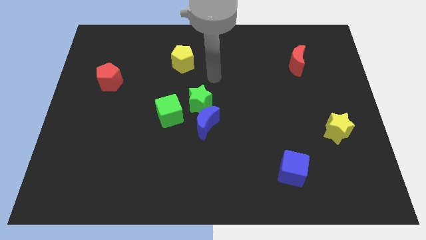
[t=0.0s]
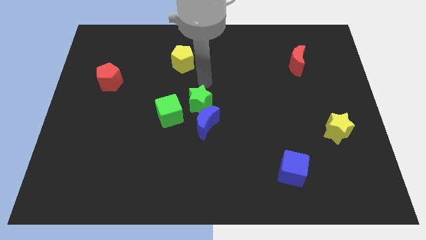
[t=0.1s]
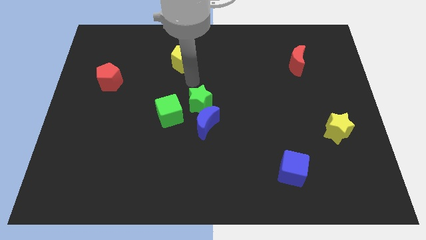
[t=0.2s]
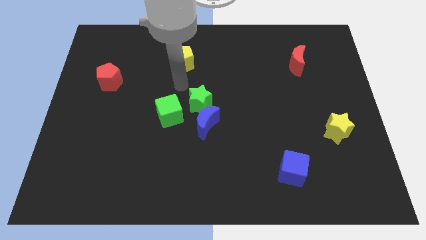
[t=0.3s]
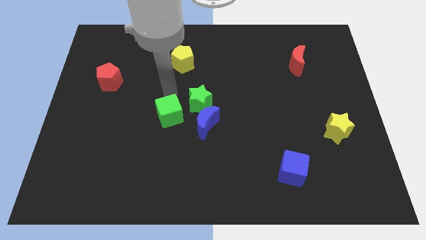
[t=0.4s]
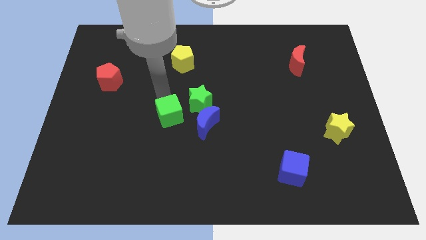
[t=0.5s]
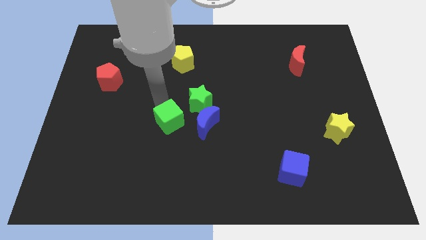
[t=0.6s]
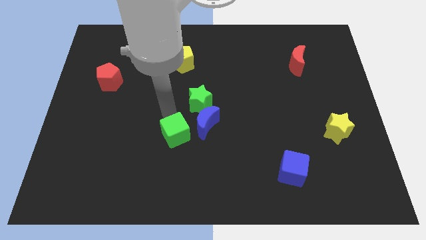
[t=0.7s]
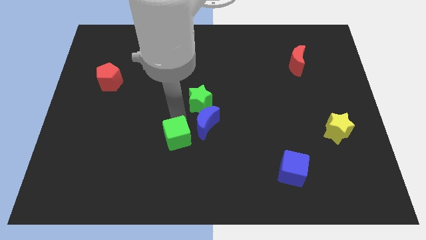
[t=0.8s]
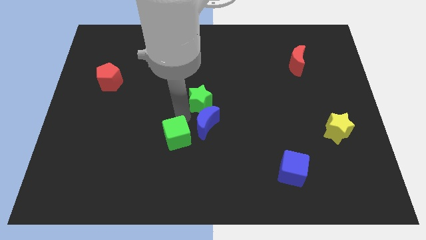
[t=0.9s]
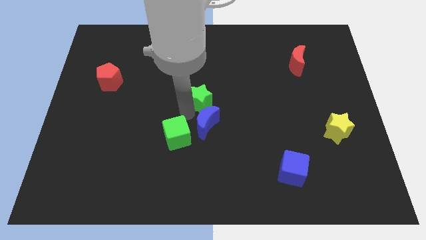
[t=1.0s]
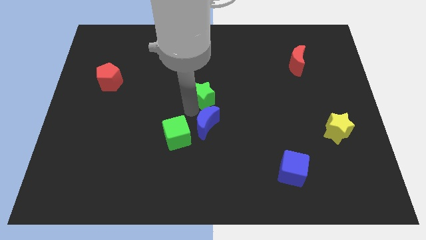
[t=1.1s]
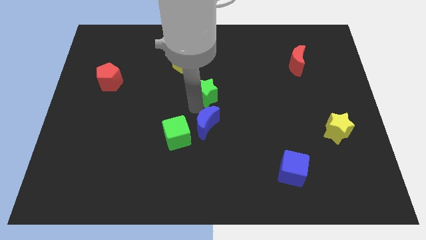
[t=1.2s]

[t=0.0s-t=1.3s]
pull the green star apart from the blue moon and green cube

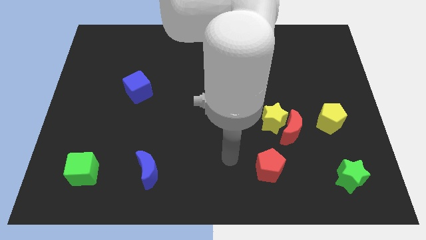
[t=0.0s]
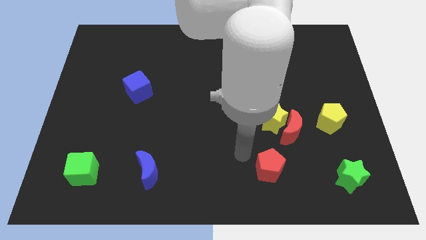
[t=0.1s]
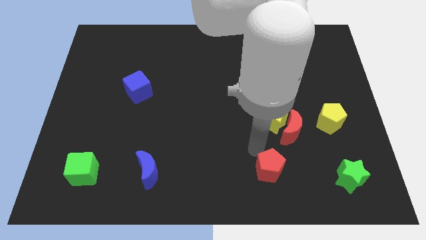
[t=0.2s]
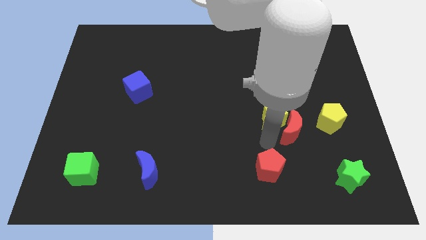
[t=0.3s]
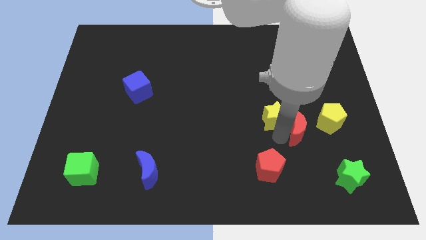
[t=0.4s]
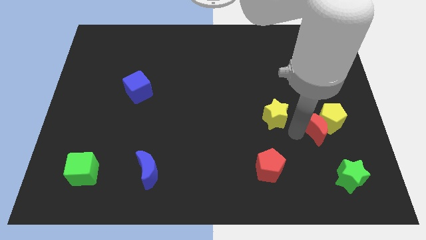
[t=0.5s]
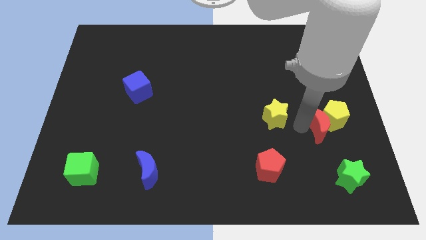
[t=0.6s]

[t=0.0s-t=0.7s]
move the yellow star away from the red moon

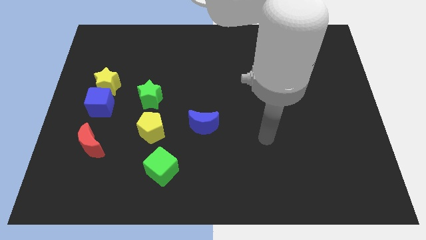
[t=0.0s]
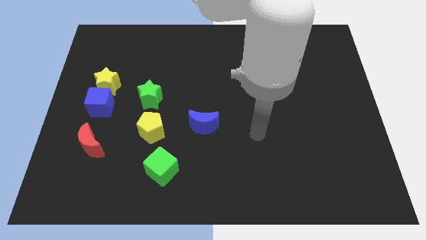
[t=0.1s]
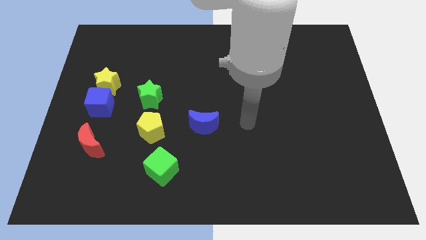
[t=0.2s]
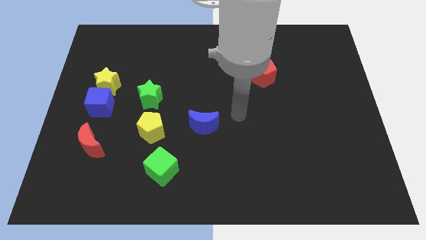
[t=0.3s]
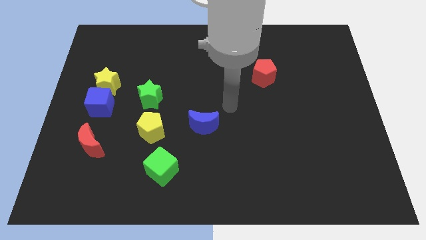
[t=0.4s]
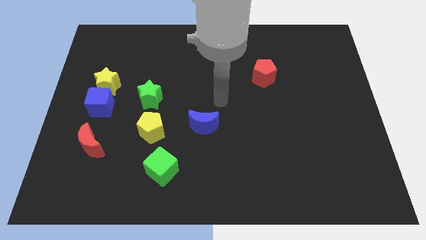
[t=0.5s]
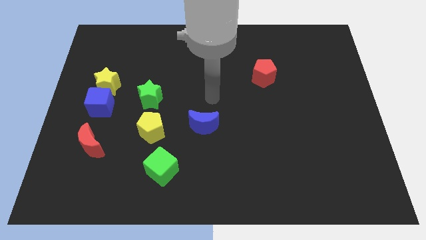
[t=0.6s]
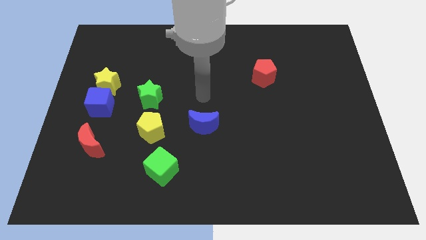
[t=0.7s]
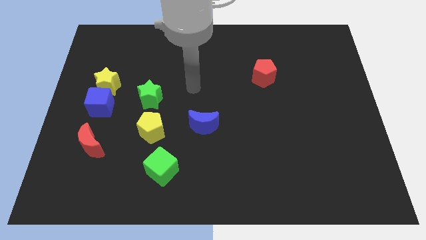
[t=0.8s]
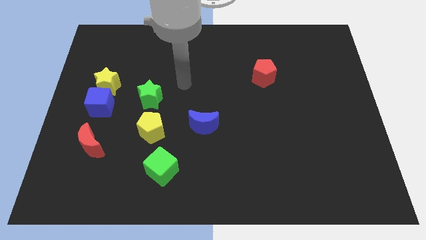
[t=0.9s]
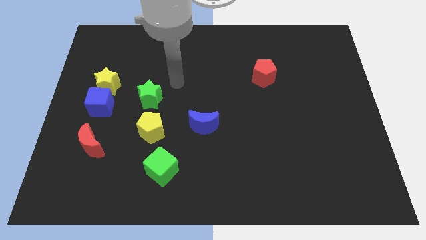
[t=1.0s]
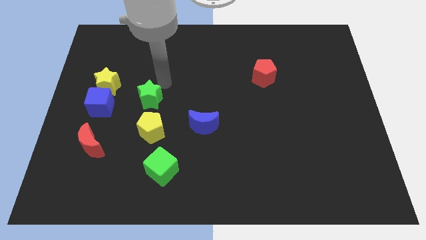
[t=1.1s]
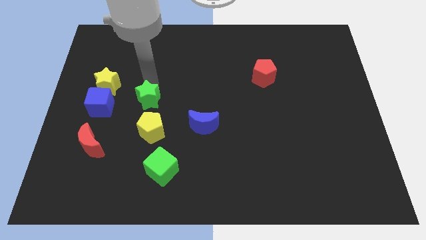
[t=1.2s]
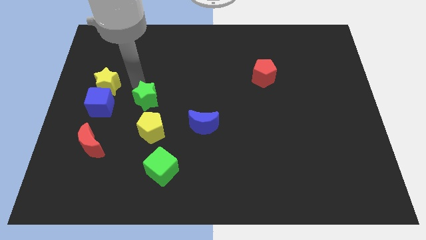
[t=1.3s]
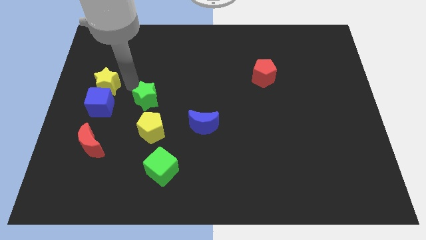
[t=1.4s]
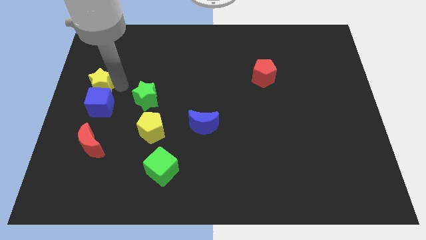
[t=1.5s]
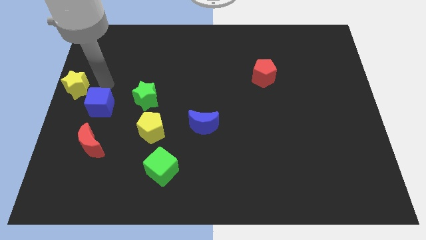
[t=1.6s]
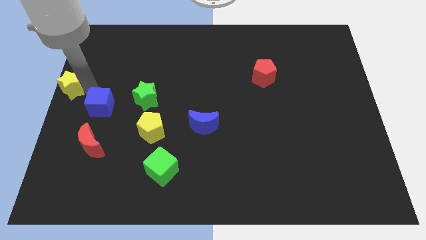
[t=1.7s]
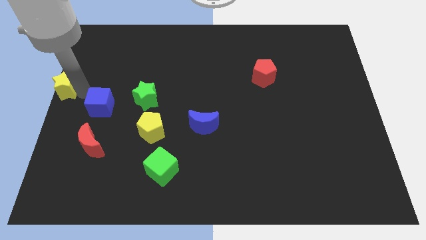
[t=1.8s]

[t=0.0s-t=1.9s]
pull the blue cube apart from the yellow star

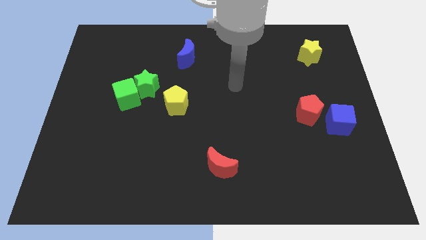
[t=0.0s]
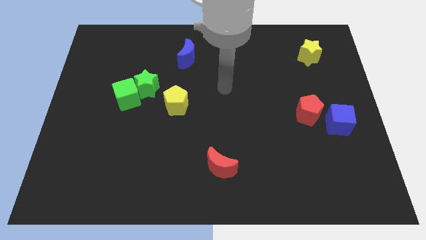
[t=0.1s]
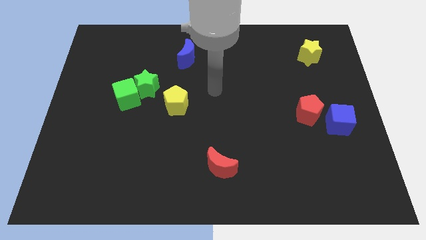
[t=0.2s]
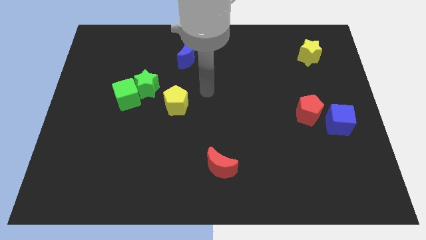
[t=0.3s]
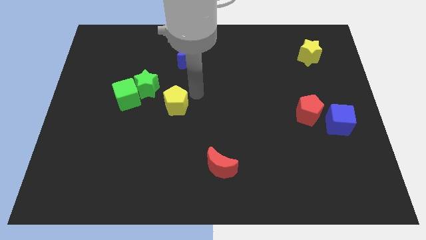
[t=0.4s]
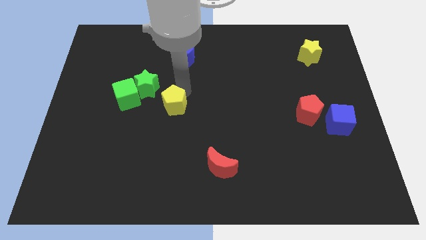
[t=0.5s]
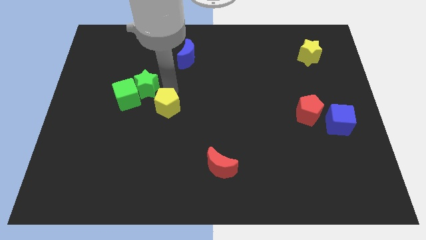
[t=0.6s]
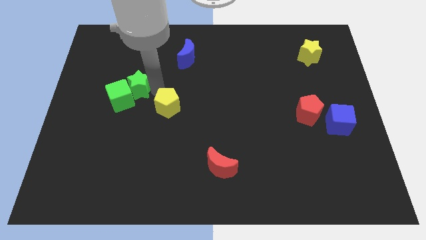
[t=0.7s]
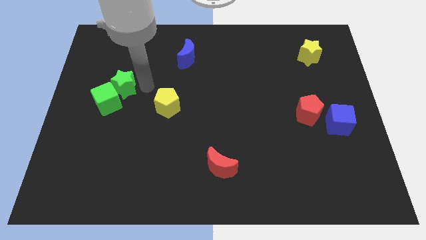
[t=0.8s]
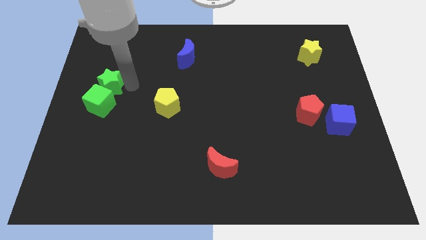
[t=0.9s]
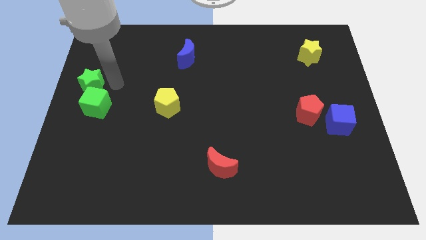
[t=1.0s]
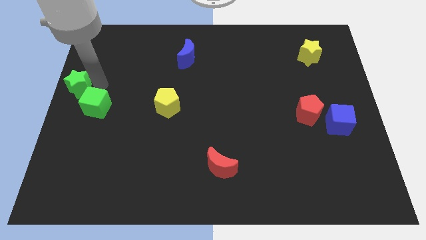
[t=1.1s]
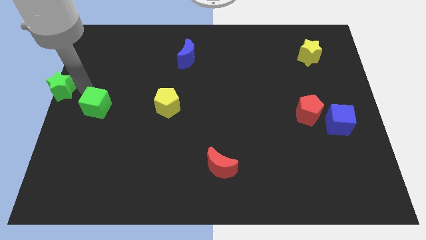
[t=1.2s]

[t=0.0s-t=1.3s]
separate the green cube from the green star

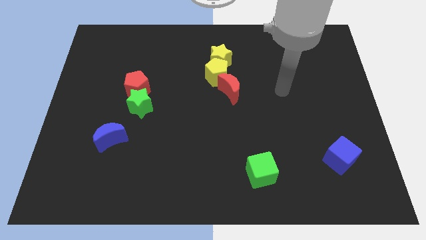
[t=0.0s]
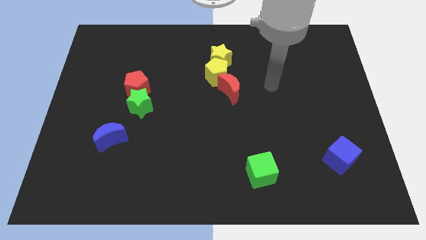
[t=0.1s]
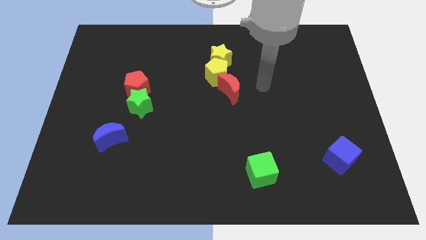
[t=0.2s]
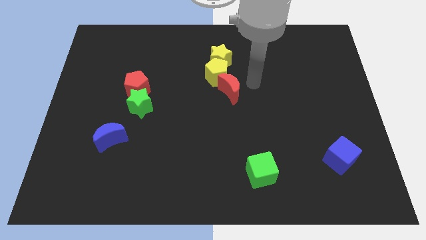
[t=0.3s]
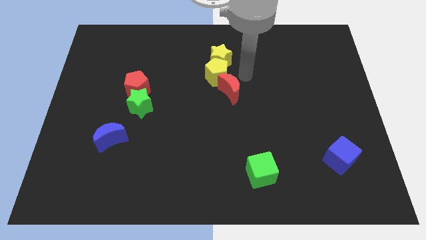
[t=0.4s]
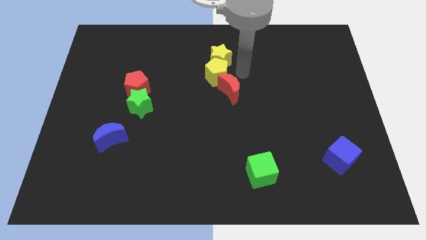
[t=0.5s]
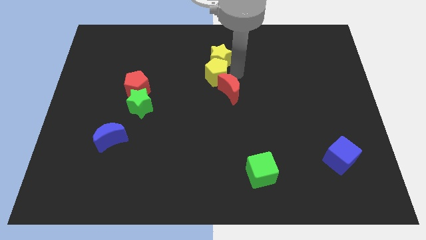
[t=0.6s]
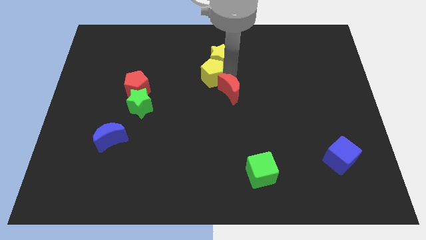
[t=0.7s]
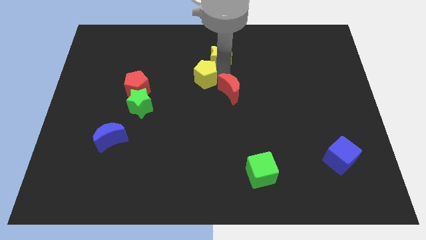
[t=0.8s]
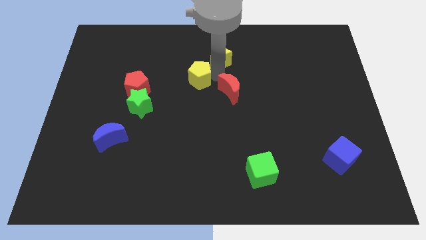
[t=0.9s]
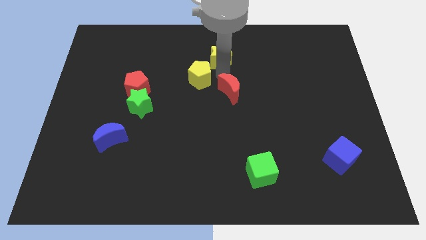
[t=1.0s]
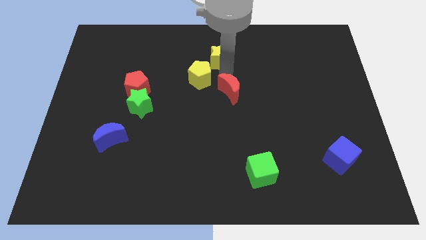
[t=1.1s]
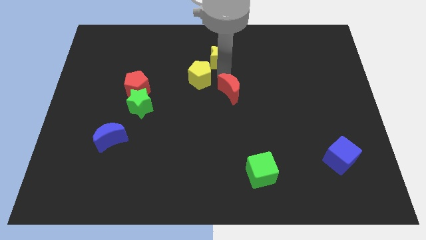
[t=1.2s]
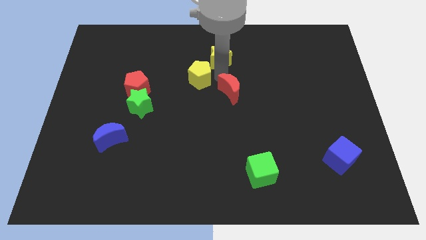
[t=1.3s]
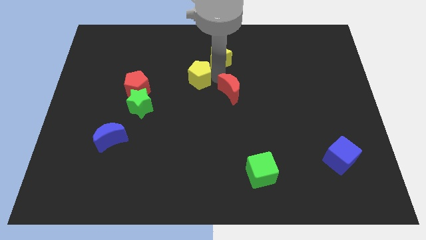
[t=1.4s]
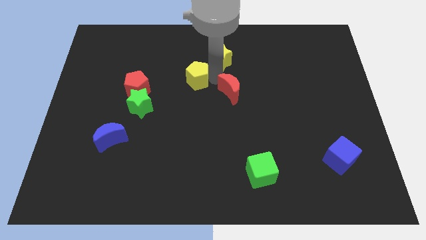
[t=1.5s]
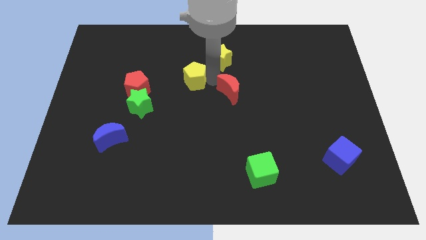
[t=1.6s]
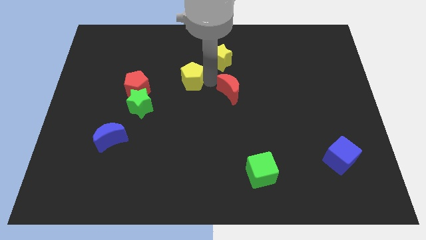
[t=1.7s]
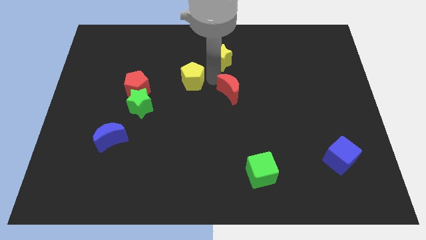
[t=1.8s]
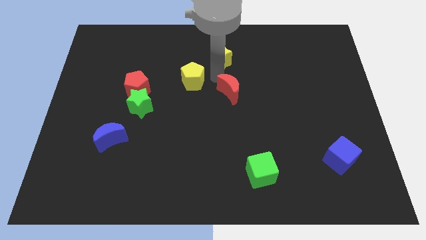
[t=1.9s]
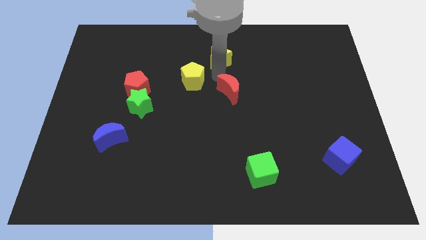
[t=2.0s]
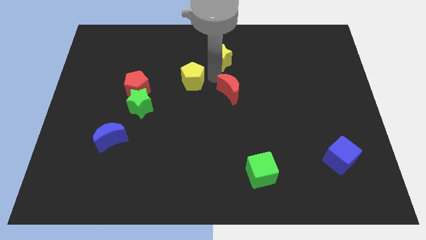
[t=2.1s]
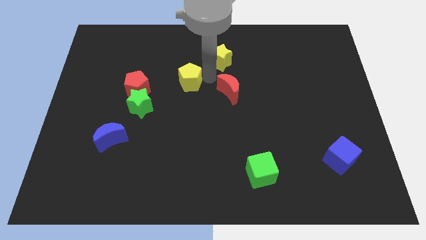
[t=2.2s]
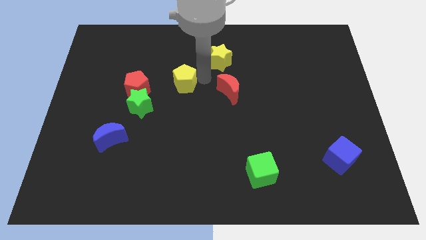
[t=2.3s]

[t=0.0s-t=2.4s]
separate the yellow pentagon from the yellow star and red moon

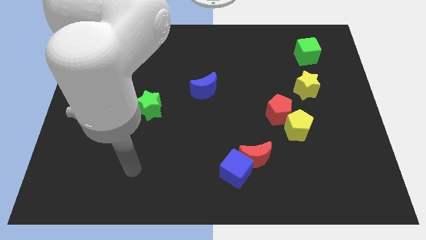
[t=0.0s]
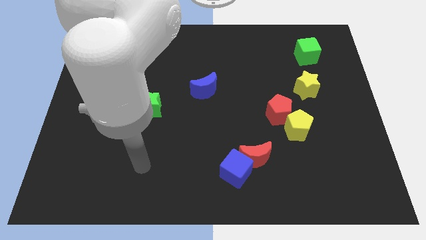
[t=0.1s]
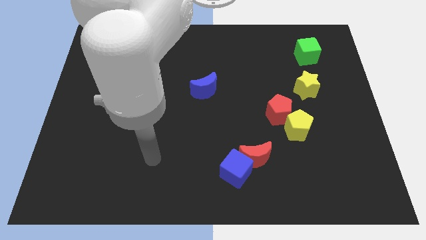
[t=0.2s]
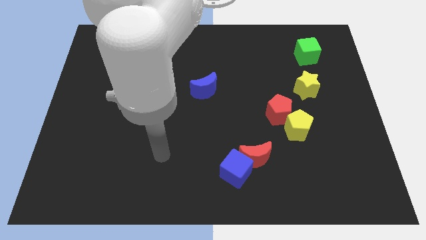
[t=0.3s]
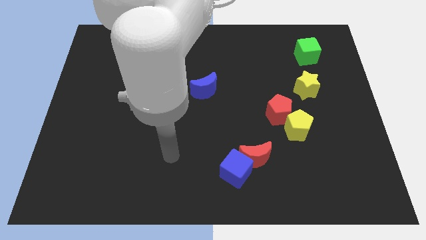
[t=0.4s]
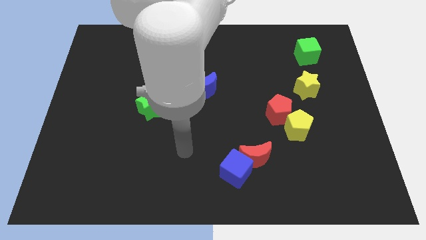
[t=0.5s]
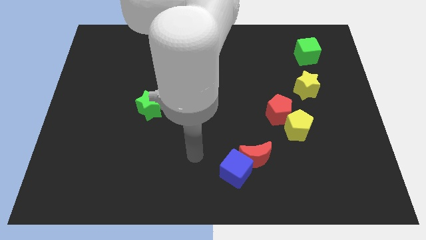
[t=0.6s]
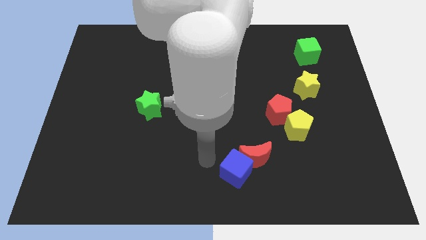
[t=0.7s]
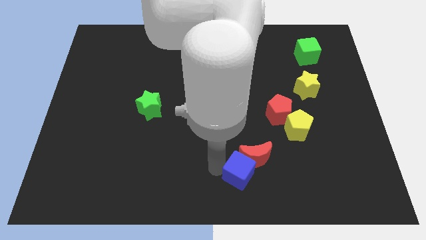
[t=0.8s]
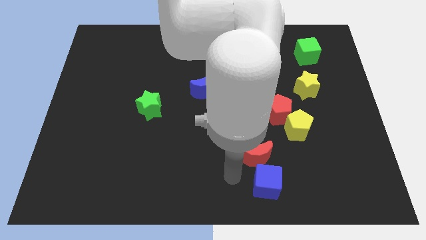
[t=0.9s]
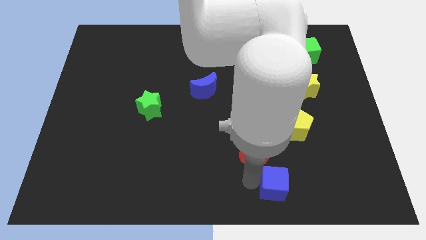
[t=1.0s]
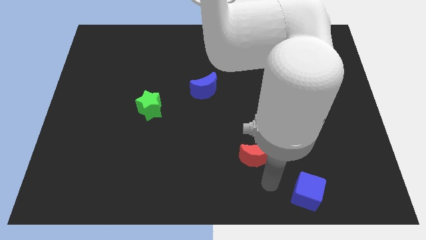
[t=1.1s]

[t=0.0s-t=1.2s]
pull the red moon apart from the blue cube

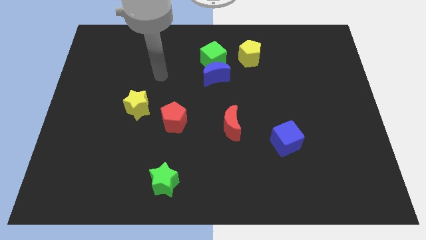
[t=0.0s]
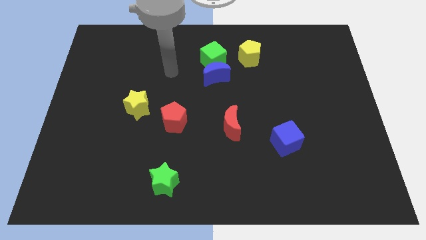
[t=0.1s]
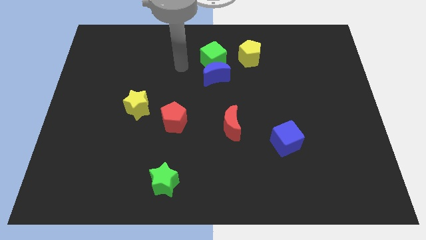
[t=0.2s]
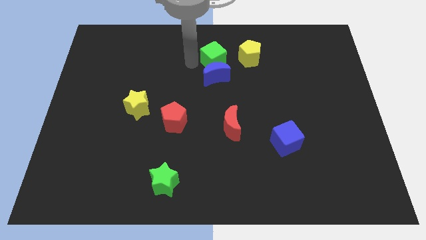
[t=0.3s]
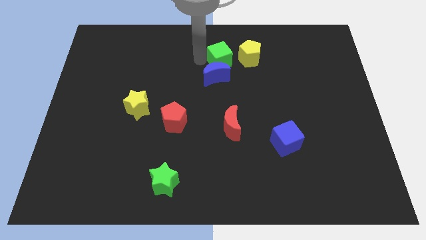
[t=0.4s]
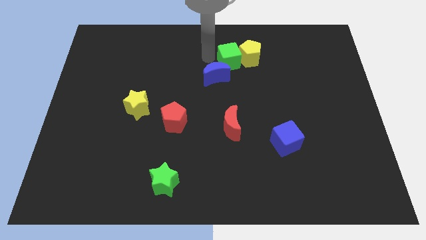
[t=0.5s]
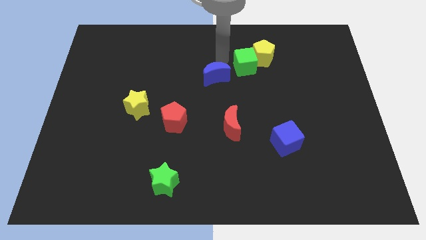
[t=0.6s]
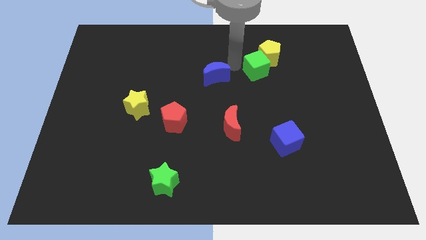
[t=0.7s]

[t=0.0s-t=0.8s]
move the blue moon away from the green cube
